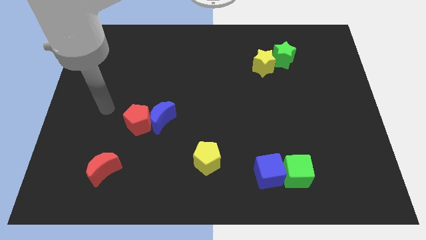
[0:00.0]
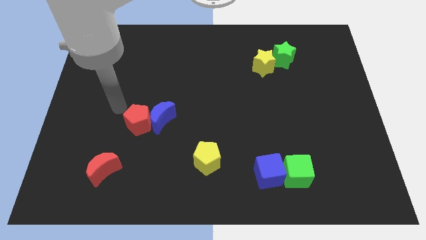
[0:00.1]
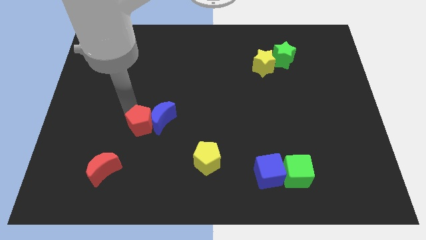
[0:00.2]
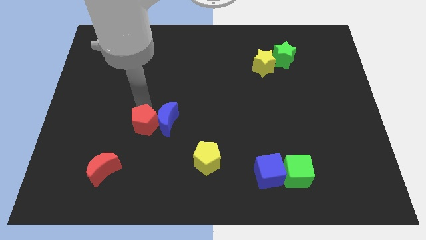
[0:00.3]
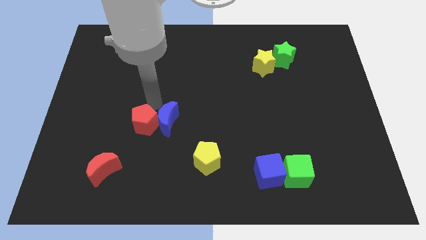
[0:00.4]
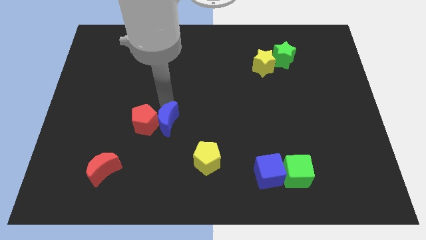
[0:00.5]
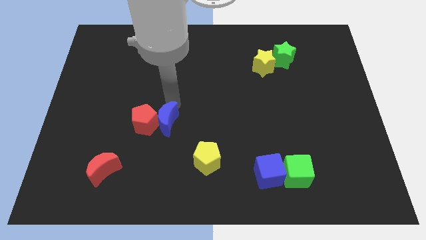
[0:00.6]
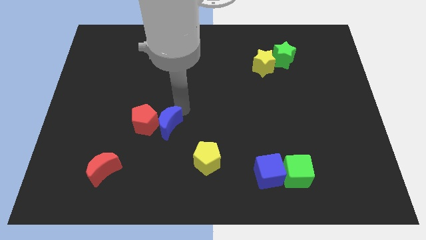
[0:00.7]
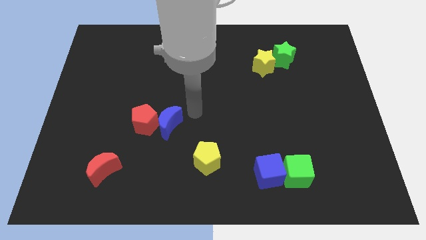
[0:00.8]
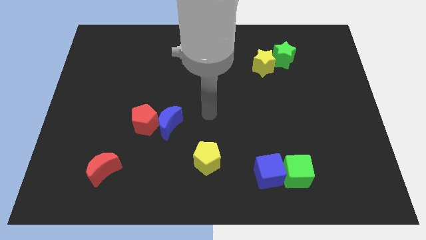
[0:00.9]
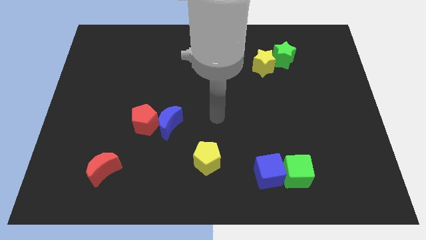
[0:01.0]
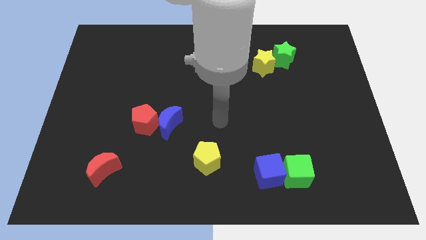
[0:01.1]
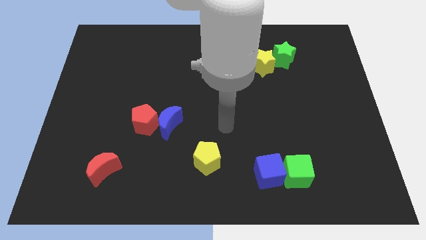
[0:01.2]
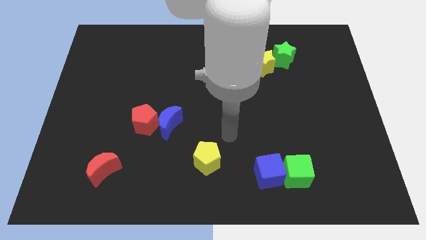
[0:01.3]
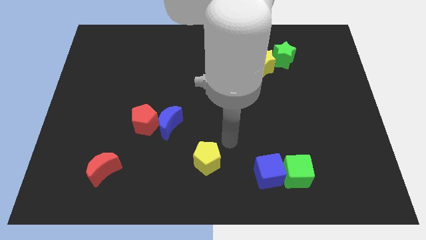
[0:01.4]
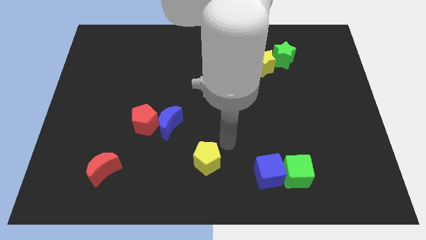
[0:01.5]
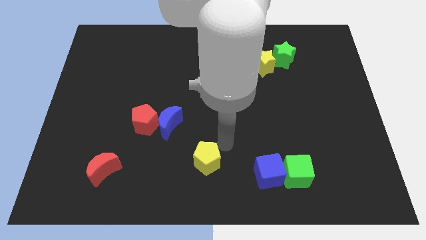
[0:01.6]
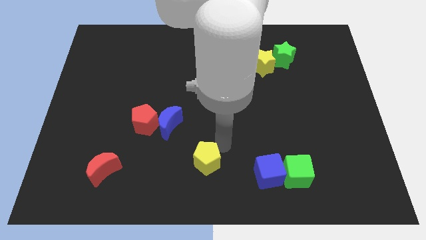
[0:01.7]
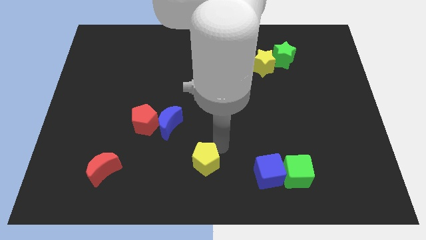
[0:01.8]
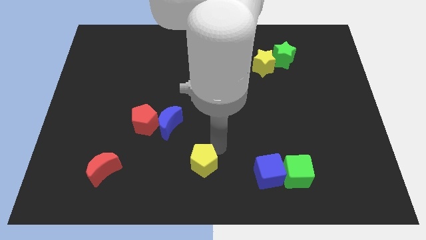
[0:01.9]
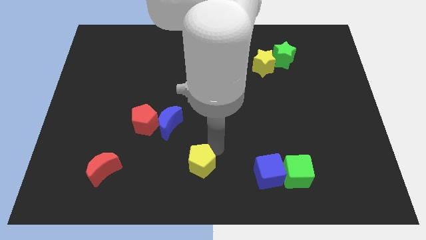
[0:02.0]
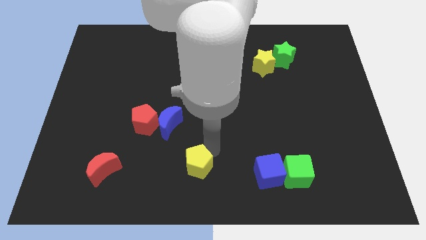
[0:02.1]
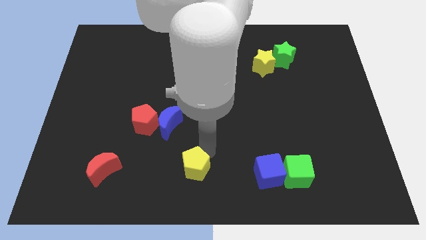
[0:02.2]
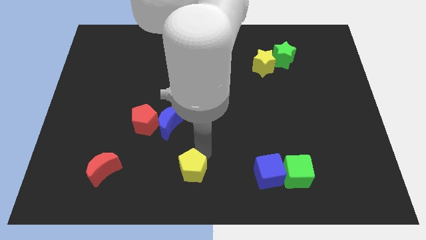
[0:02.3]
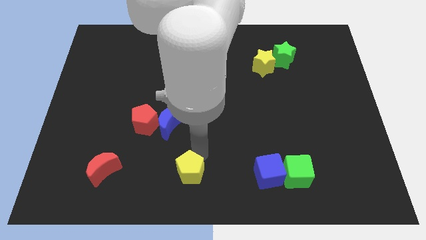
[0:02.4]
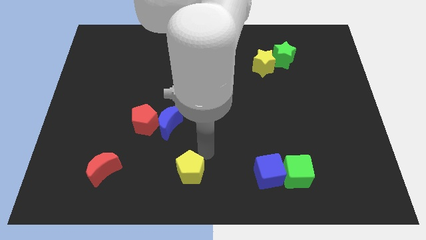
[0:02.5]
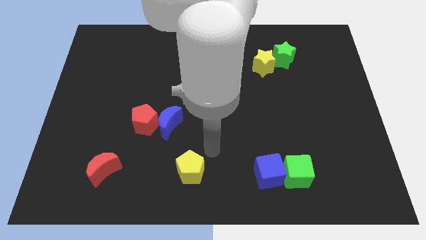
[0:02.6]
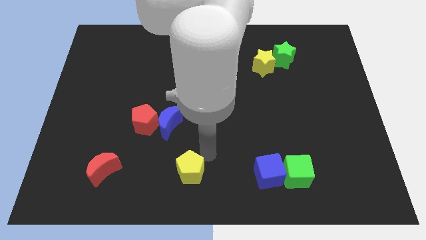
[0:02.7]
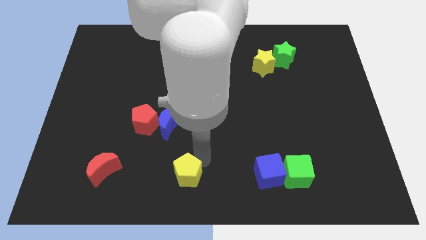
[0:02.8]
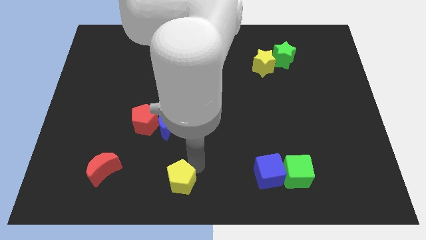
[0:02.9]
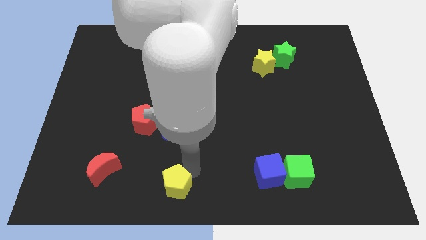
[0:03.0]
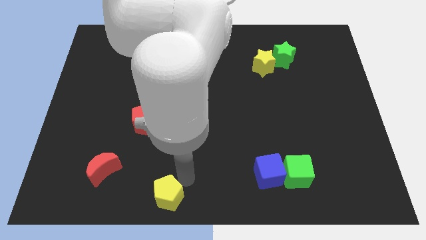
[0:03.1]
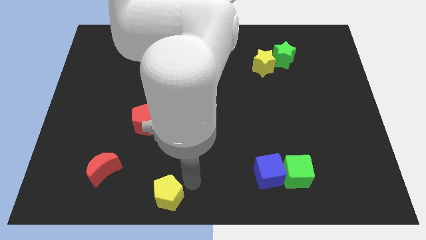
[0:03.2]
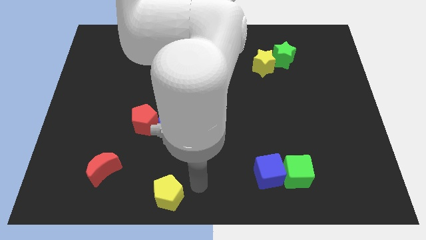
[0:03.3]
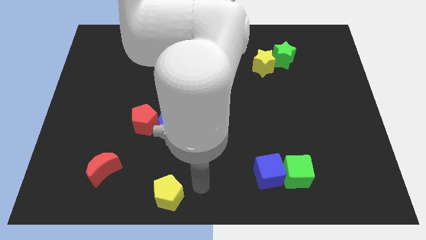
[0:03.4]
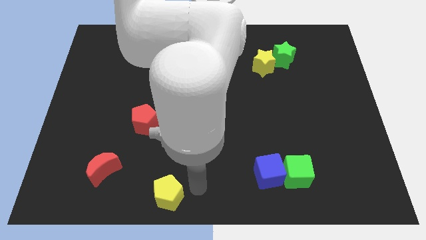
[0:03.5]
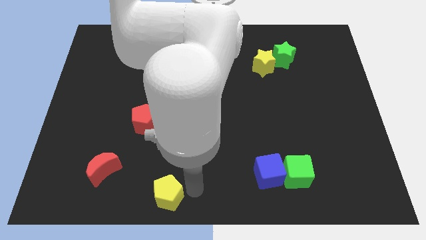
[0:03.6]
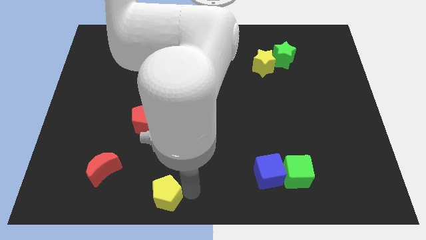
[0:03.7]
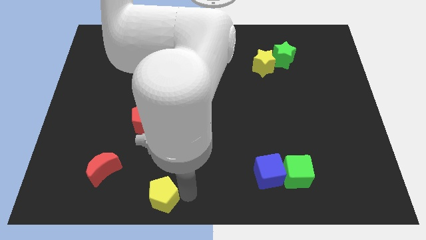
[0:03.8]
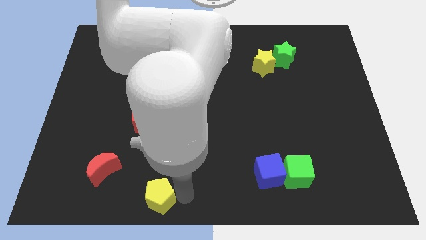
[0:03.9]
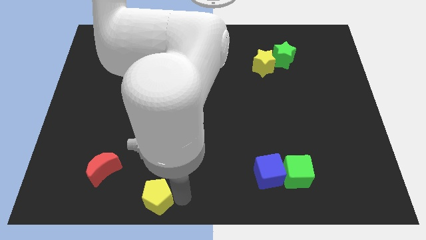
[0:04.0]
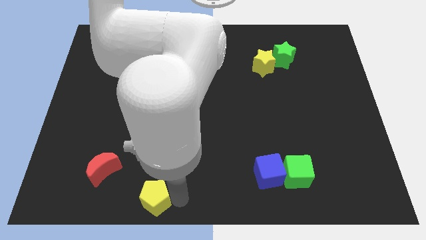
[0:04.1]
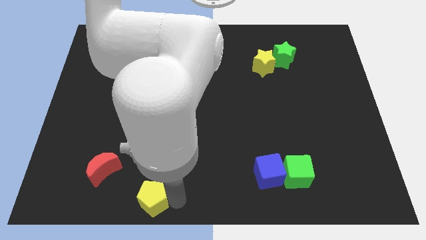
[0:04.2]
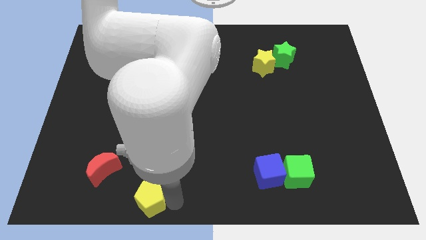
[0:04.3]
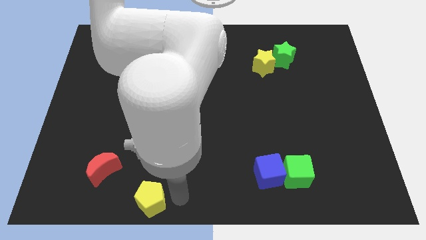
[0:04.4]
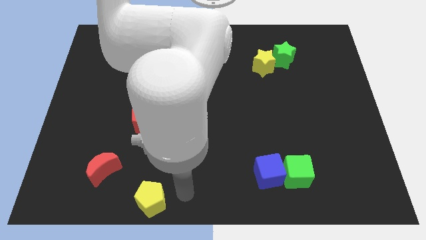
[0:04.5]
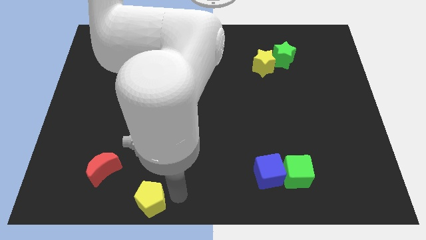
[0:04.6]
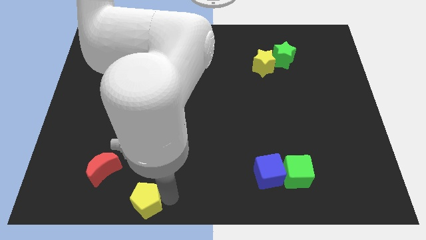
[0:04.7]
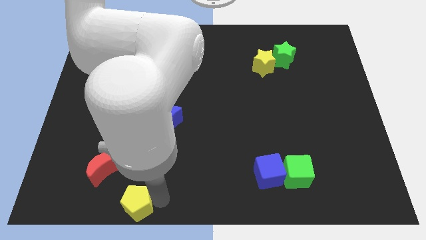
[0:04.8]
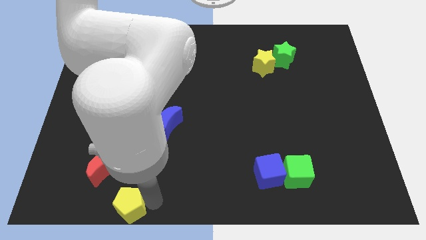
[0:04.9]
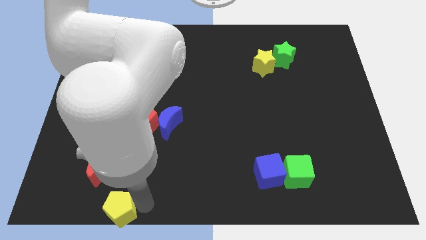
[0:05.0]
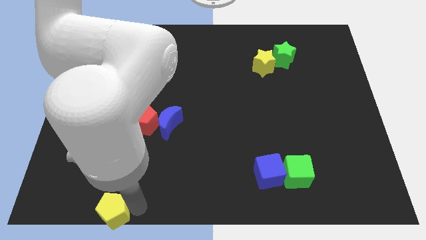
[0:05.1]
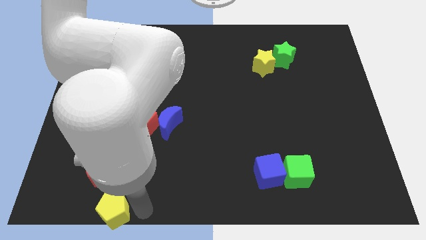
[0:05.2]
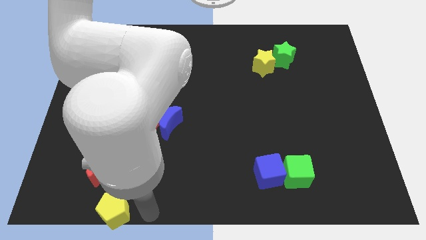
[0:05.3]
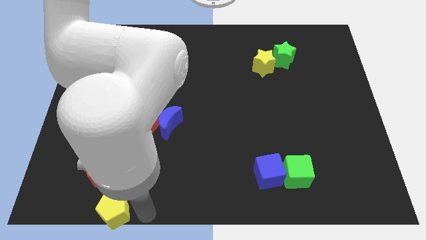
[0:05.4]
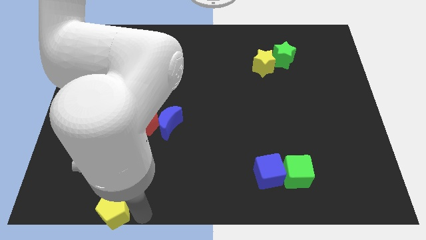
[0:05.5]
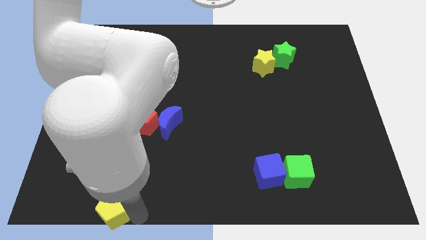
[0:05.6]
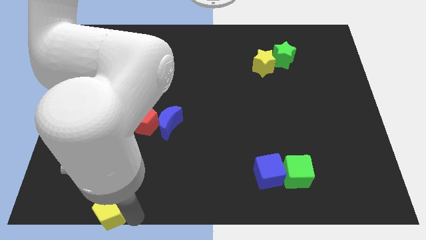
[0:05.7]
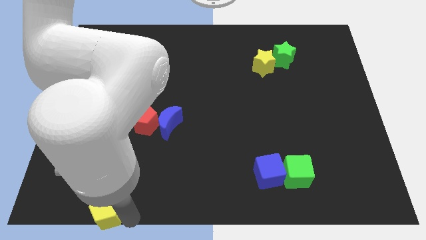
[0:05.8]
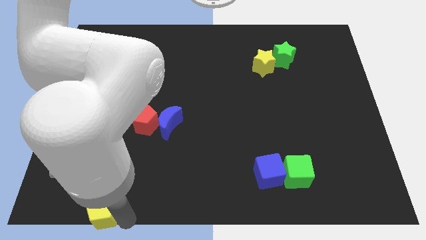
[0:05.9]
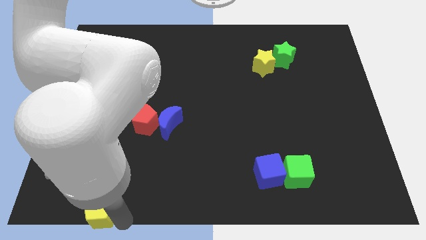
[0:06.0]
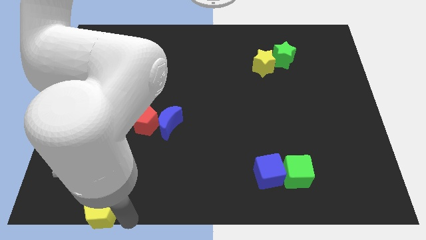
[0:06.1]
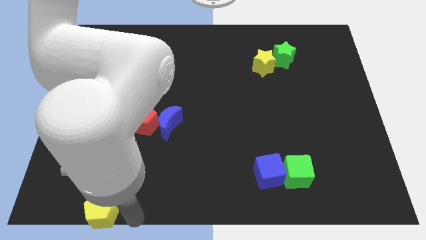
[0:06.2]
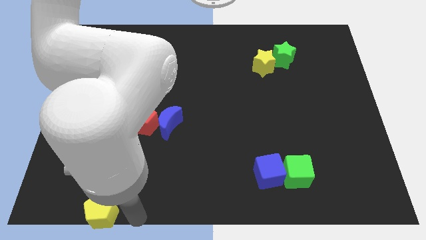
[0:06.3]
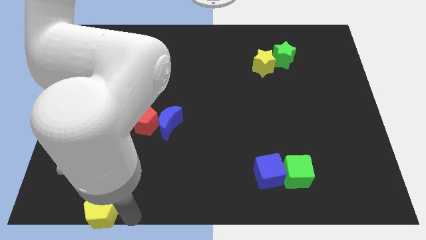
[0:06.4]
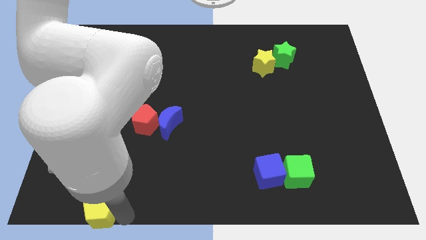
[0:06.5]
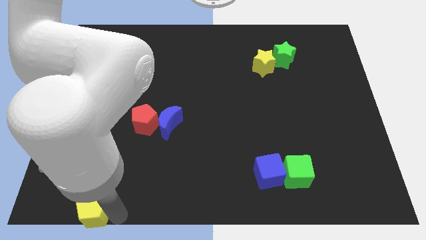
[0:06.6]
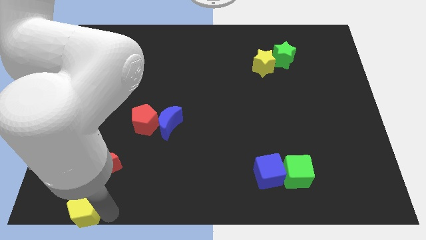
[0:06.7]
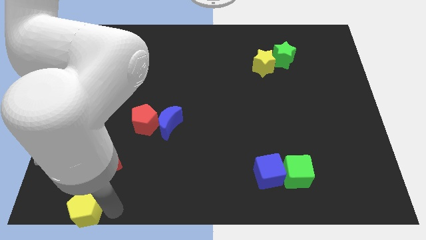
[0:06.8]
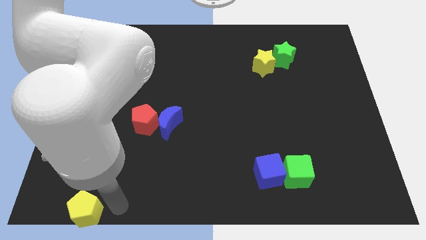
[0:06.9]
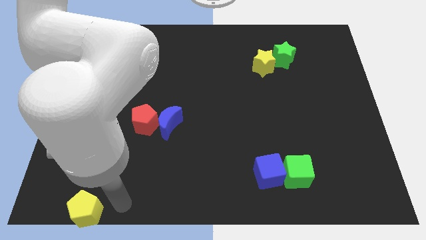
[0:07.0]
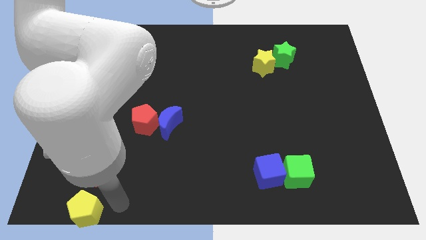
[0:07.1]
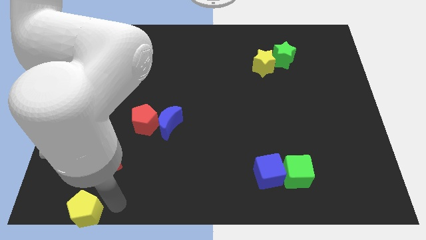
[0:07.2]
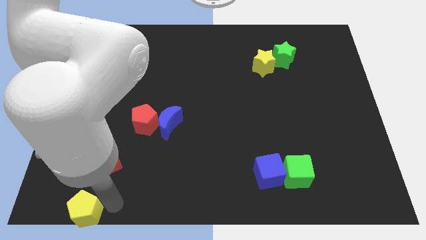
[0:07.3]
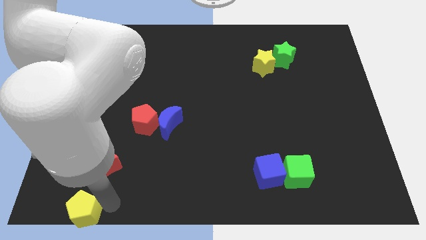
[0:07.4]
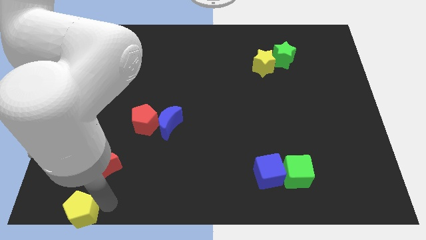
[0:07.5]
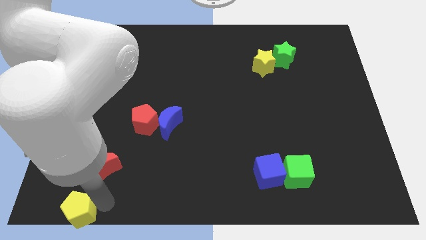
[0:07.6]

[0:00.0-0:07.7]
slide the yellow pentagon to the bottom left of the board
